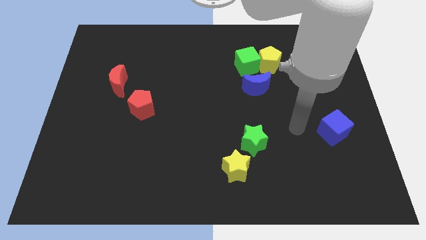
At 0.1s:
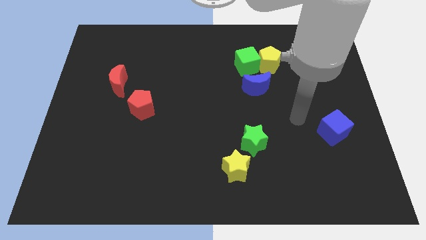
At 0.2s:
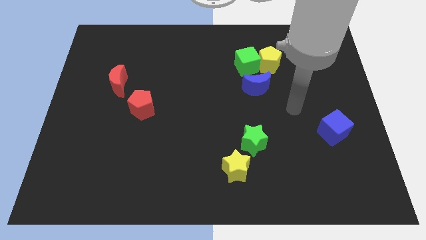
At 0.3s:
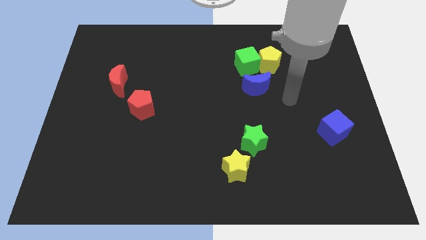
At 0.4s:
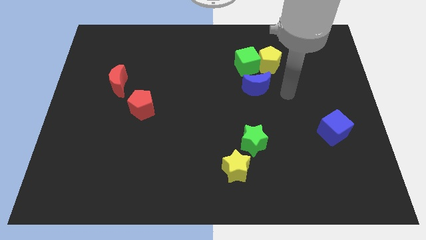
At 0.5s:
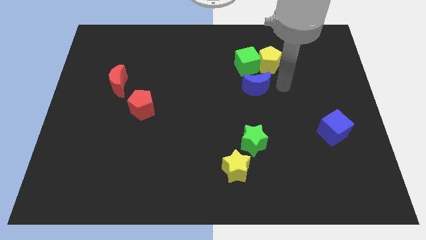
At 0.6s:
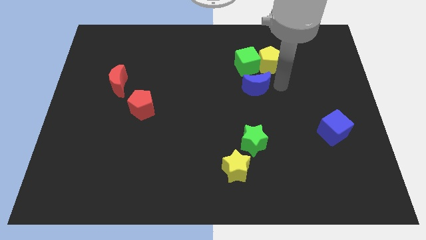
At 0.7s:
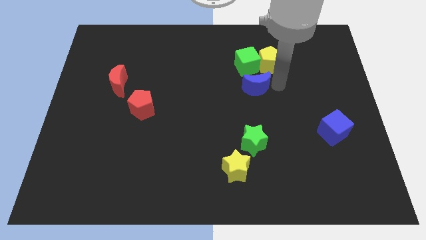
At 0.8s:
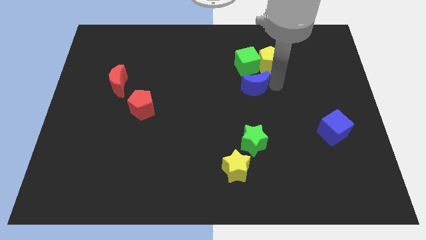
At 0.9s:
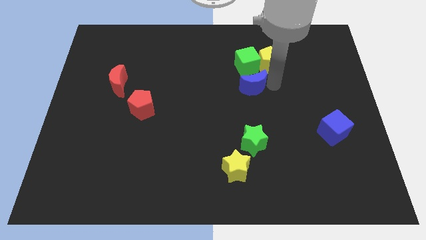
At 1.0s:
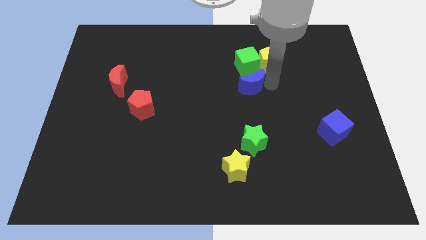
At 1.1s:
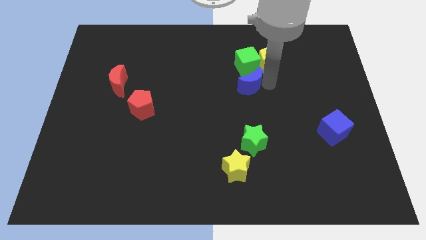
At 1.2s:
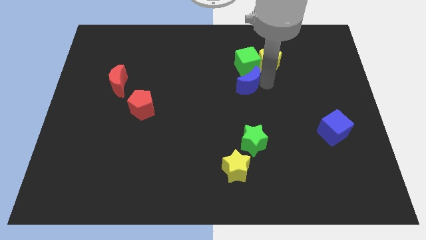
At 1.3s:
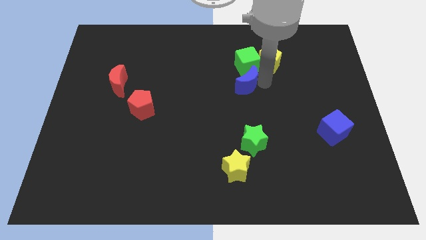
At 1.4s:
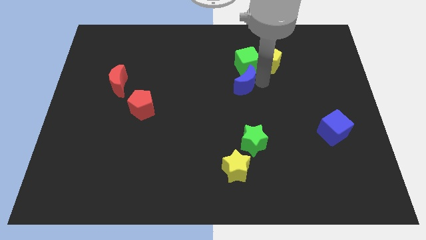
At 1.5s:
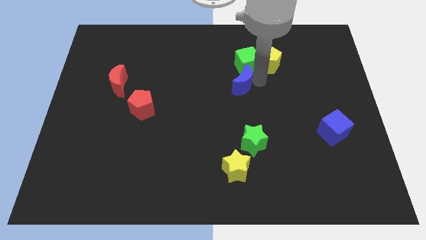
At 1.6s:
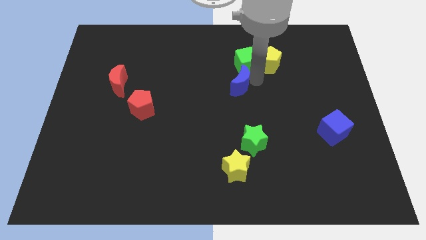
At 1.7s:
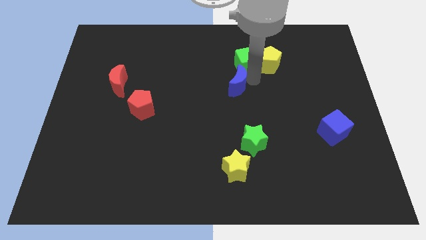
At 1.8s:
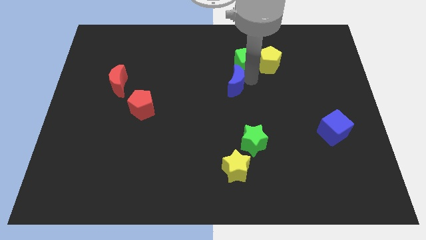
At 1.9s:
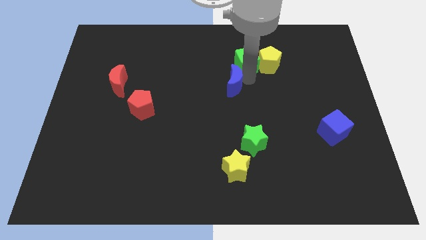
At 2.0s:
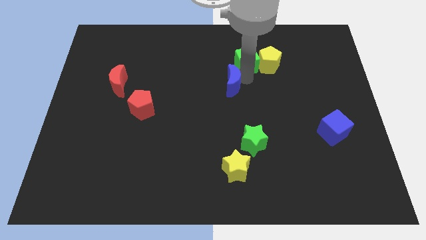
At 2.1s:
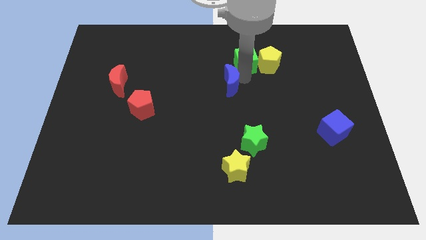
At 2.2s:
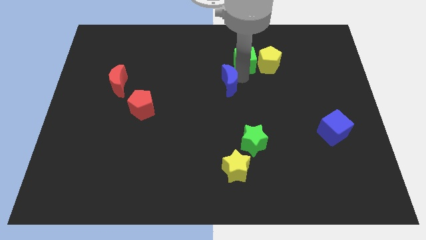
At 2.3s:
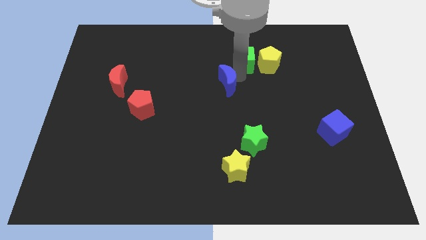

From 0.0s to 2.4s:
slide the blue moon to the left a little

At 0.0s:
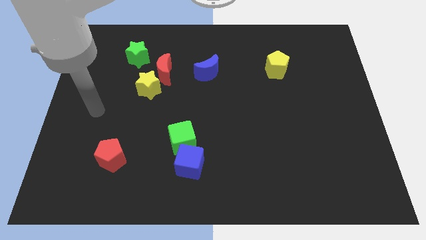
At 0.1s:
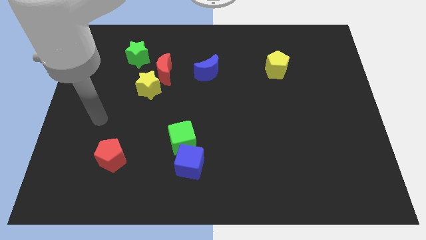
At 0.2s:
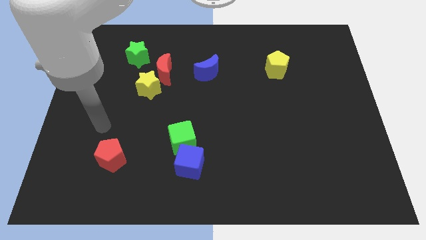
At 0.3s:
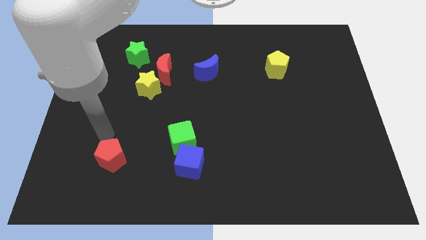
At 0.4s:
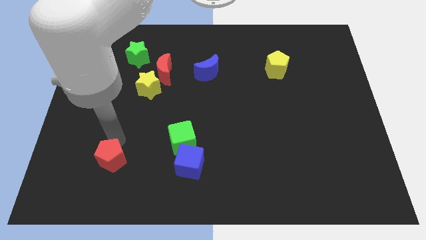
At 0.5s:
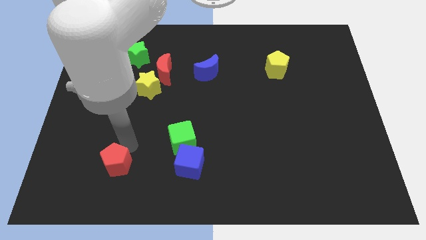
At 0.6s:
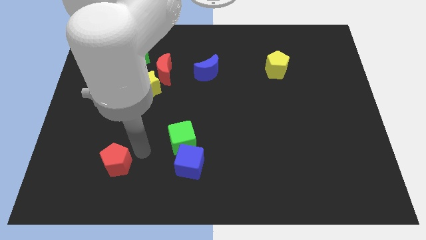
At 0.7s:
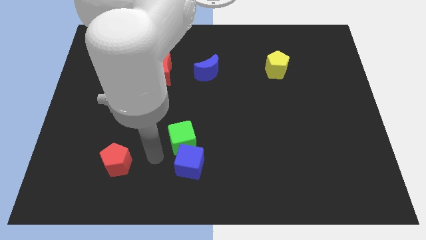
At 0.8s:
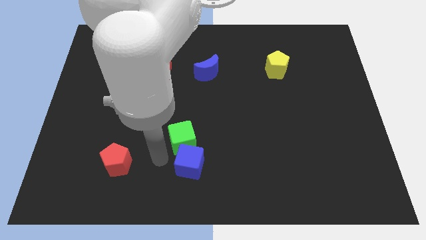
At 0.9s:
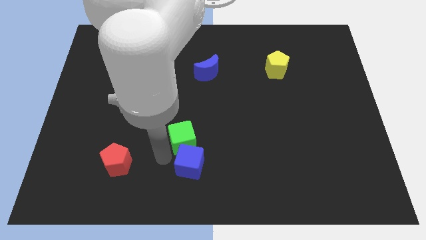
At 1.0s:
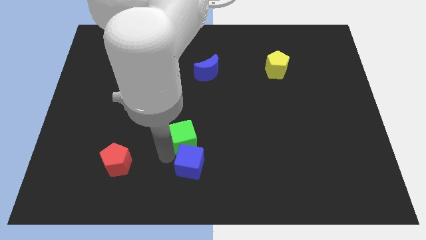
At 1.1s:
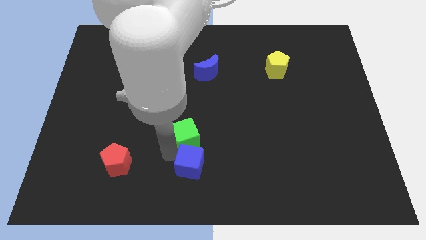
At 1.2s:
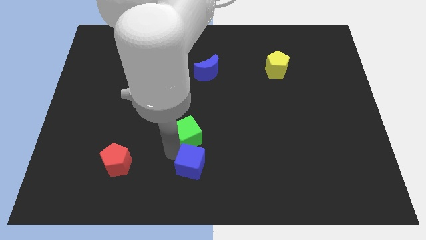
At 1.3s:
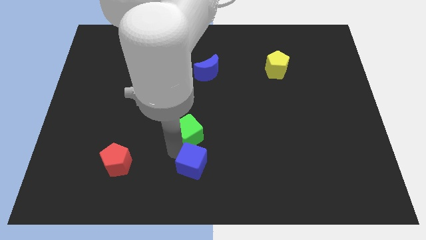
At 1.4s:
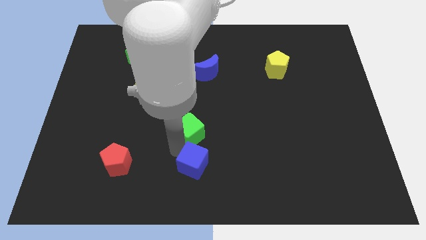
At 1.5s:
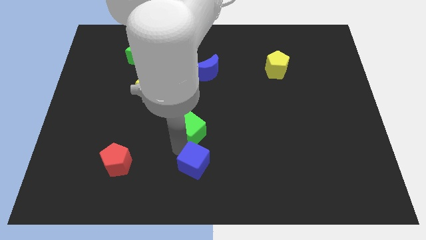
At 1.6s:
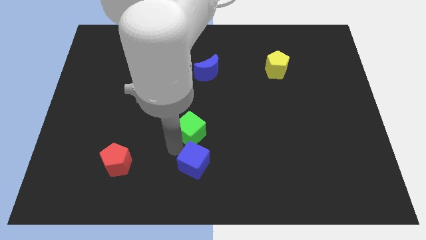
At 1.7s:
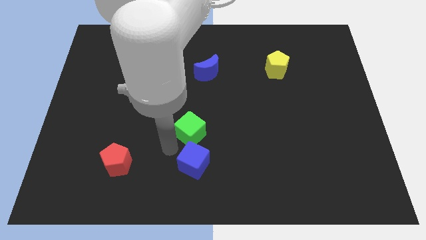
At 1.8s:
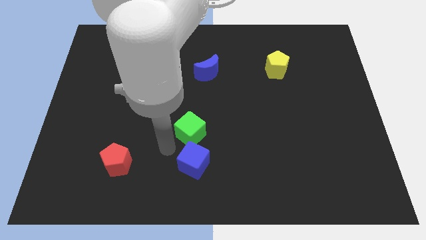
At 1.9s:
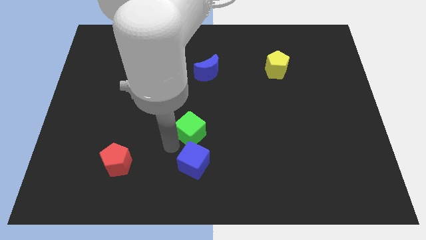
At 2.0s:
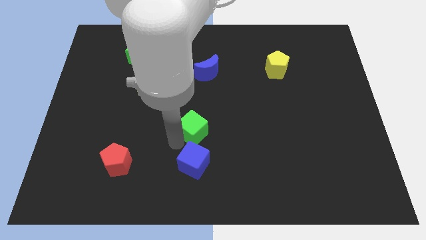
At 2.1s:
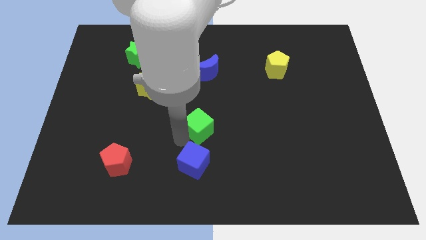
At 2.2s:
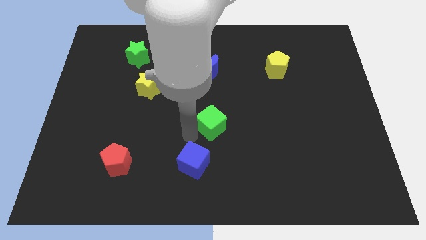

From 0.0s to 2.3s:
slightly slide the green cube diagonally up and to the right

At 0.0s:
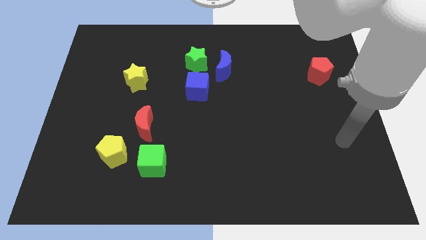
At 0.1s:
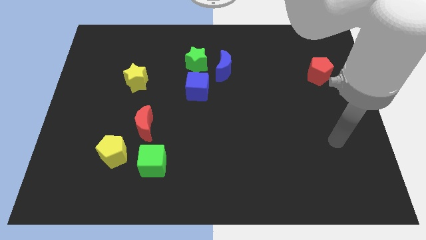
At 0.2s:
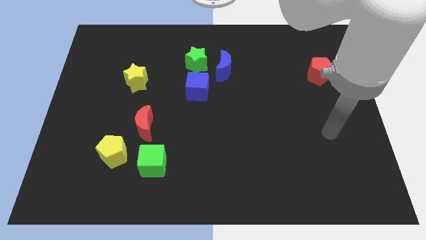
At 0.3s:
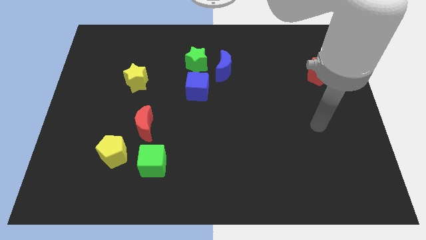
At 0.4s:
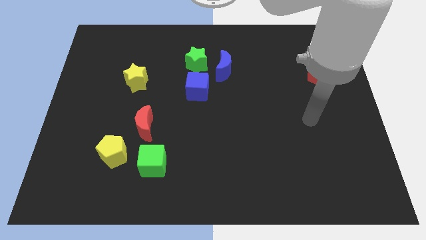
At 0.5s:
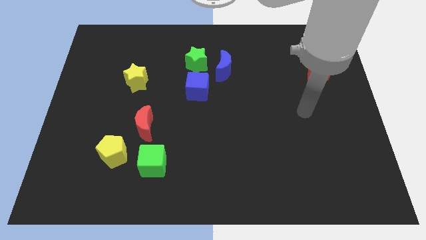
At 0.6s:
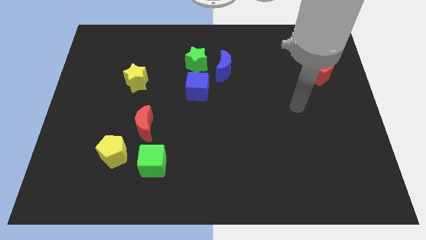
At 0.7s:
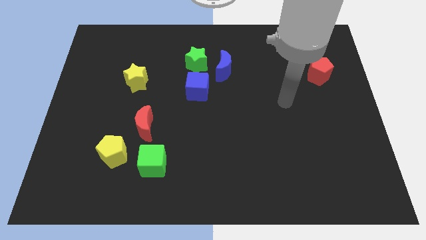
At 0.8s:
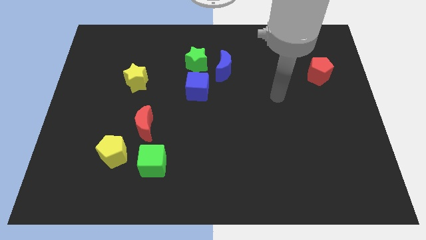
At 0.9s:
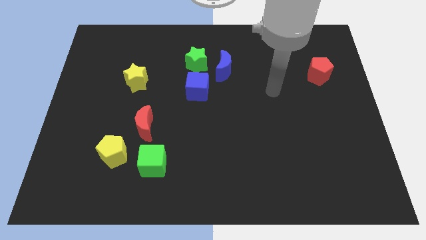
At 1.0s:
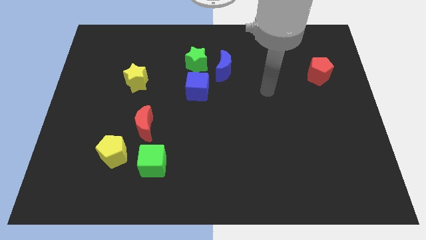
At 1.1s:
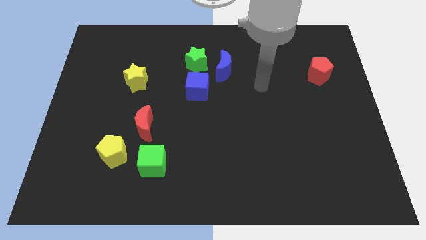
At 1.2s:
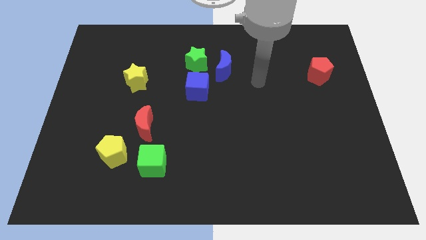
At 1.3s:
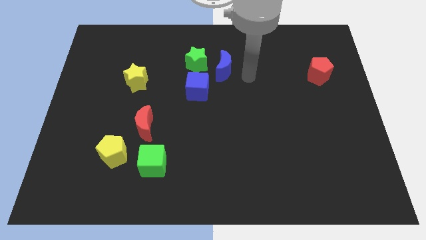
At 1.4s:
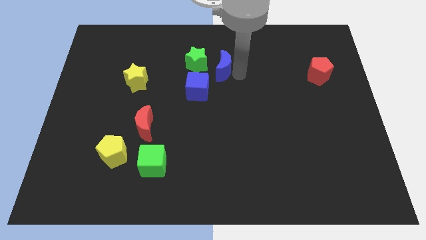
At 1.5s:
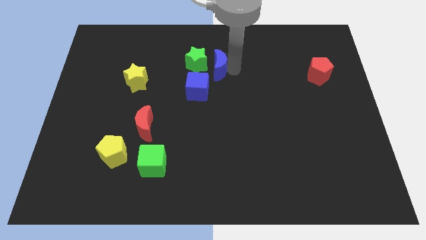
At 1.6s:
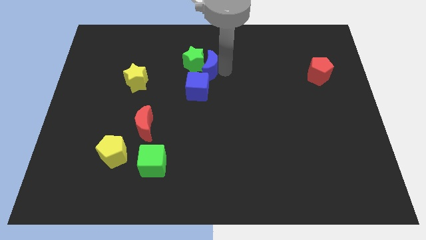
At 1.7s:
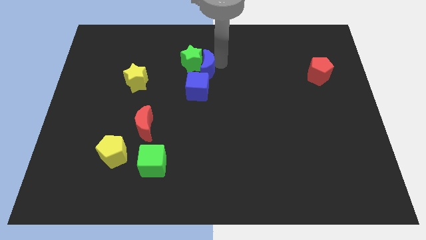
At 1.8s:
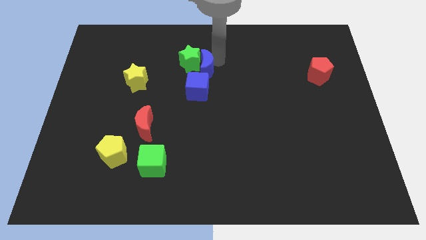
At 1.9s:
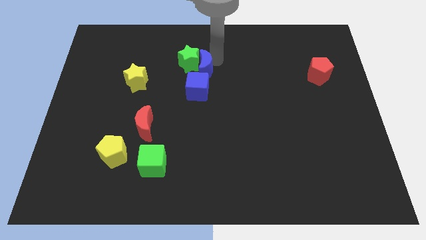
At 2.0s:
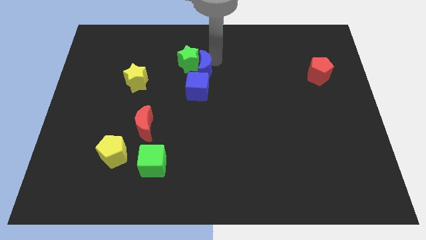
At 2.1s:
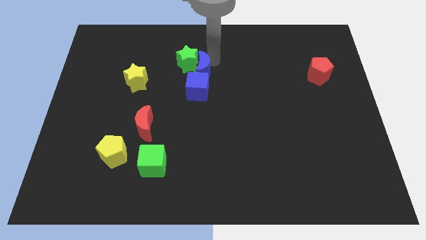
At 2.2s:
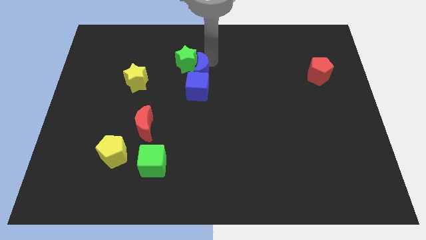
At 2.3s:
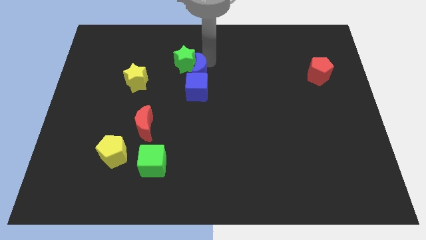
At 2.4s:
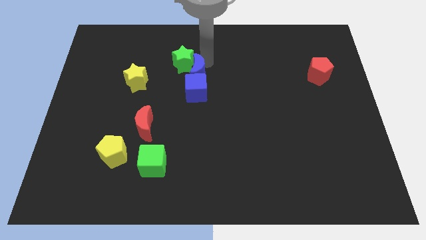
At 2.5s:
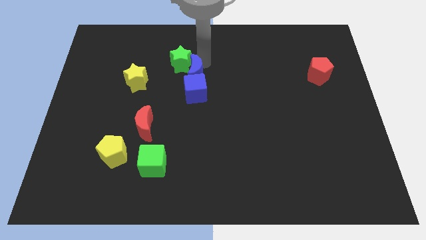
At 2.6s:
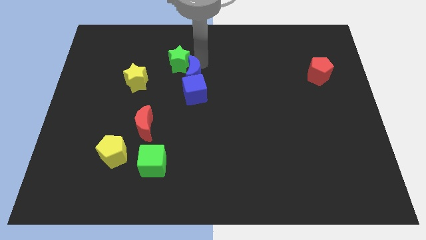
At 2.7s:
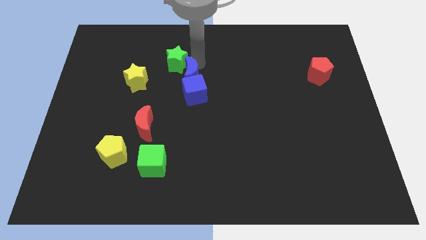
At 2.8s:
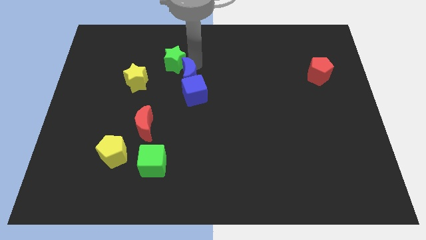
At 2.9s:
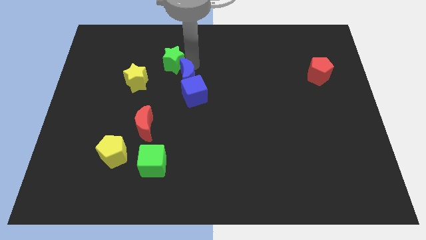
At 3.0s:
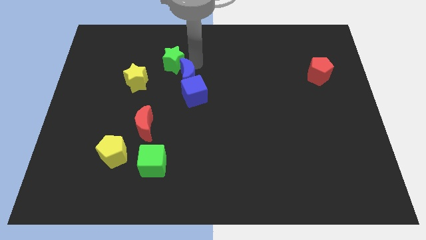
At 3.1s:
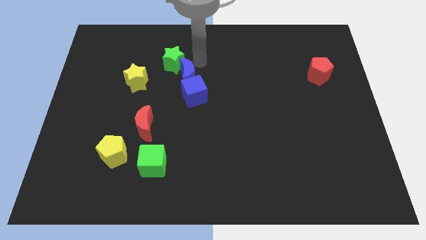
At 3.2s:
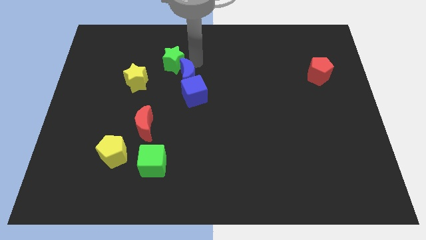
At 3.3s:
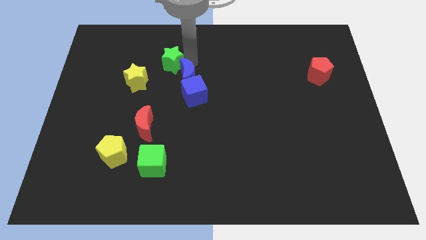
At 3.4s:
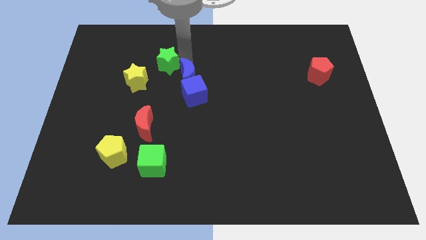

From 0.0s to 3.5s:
slide the green star to the left a little
